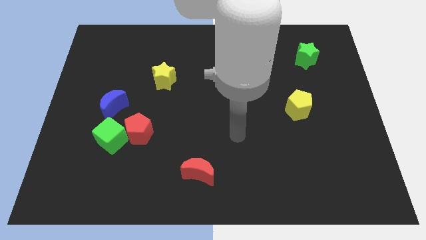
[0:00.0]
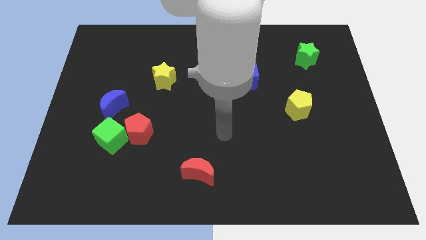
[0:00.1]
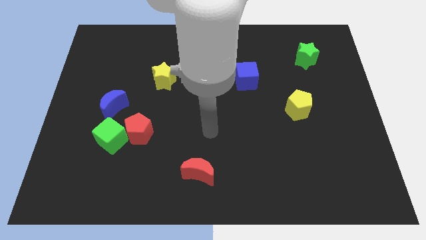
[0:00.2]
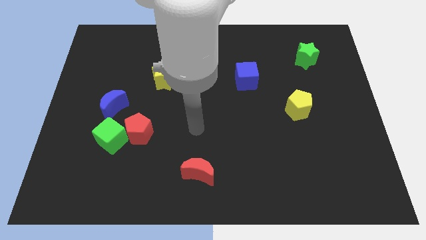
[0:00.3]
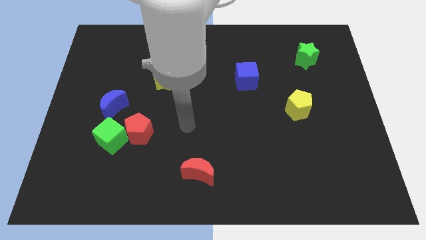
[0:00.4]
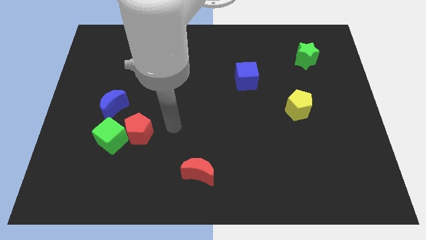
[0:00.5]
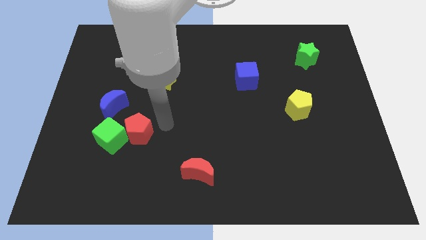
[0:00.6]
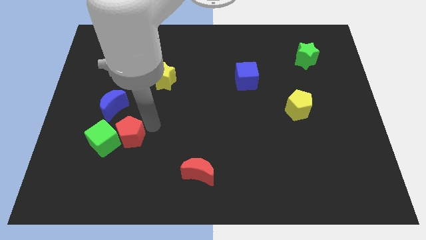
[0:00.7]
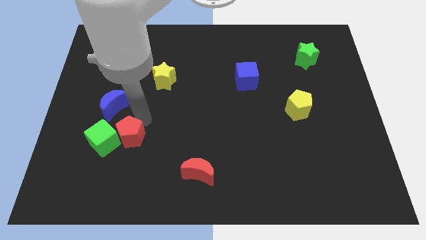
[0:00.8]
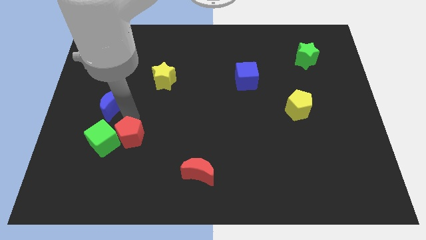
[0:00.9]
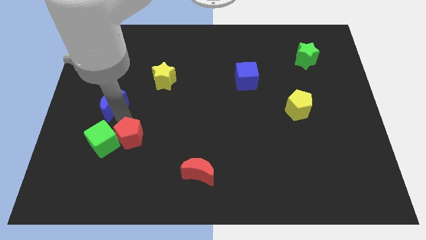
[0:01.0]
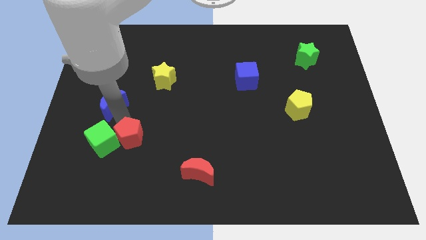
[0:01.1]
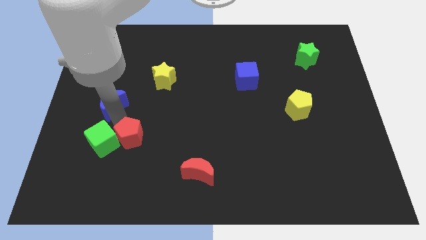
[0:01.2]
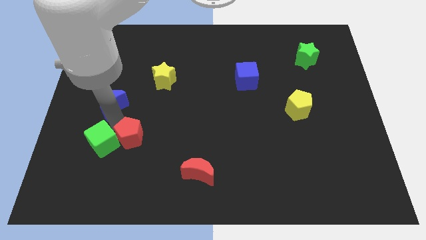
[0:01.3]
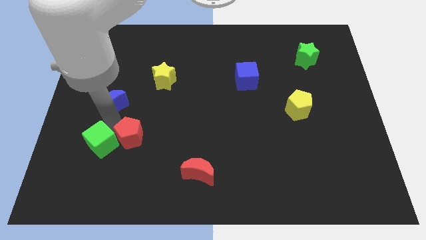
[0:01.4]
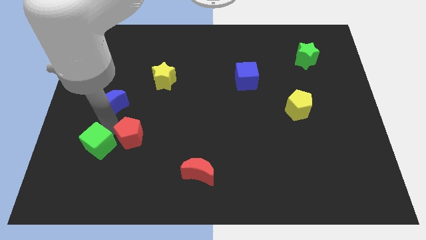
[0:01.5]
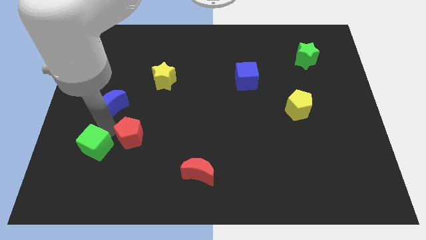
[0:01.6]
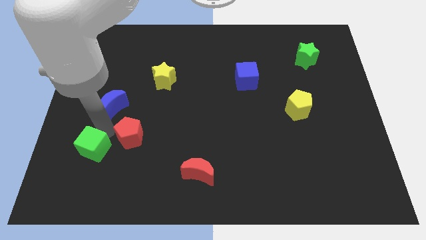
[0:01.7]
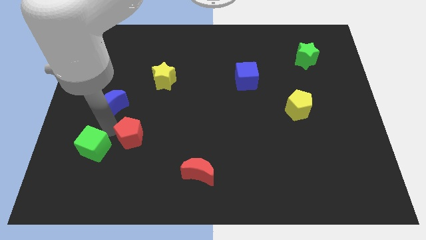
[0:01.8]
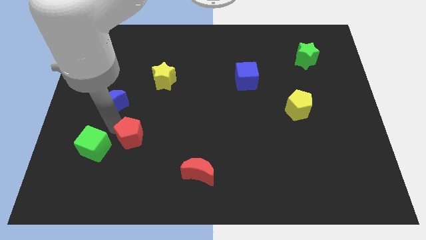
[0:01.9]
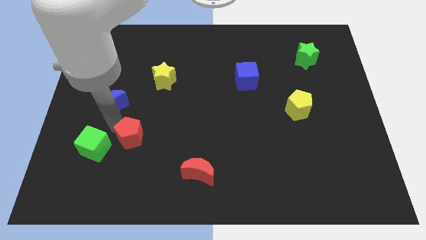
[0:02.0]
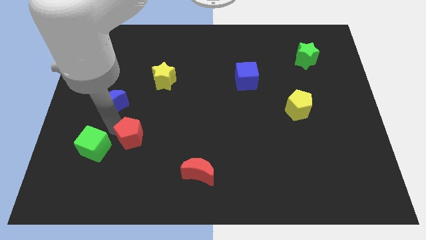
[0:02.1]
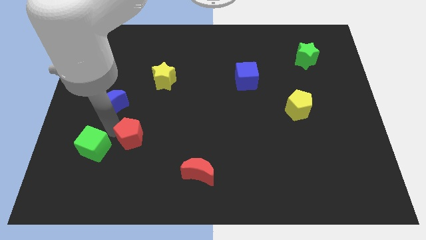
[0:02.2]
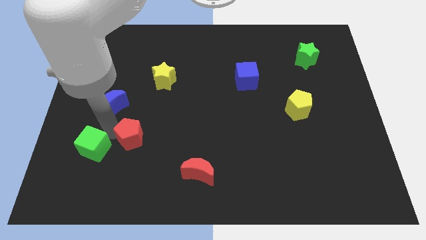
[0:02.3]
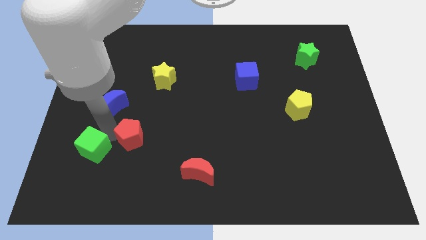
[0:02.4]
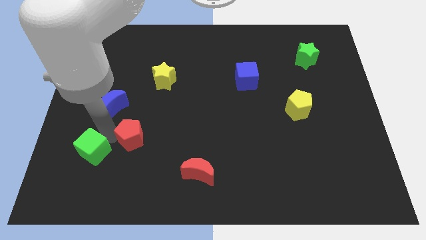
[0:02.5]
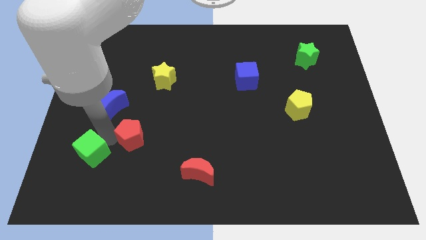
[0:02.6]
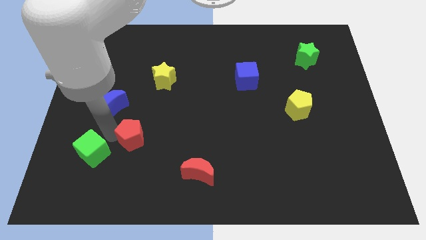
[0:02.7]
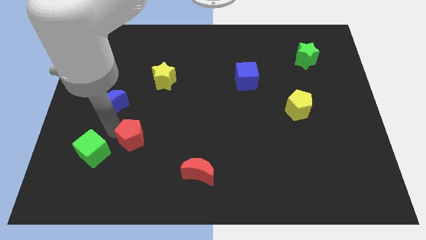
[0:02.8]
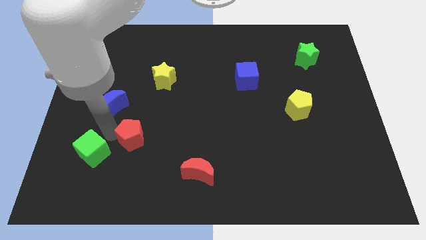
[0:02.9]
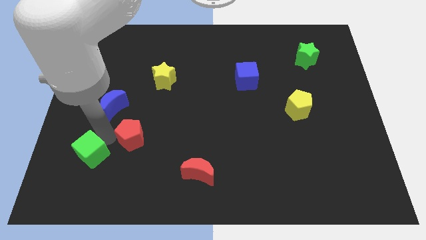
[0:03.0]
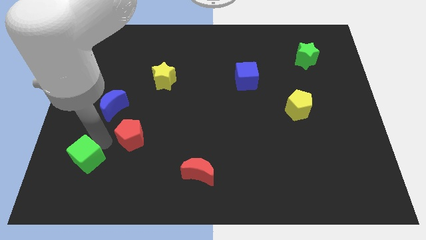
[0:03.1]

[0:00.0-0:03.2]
move the green cube away from the red pentagon and blue moon

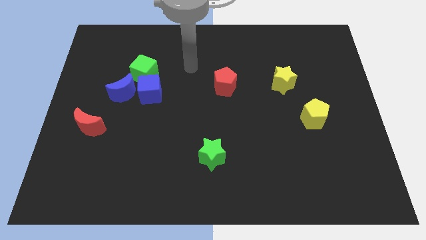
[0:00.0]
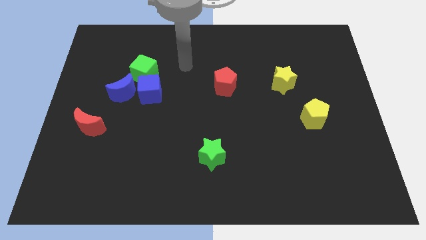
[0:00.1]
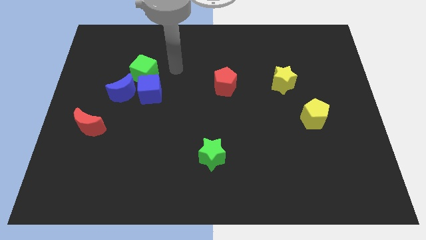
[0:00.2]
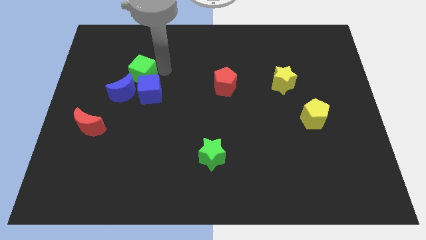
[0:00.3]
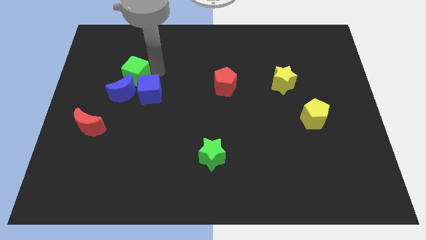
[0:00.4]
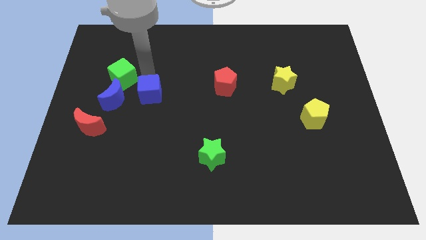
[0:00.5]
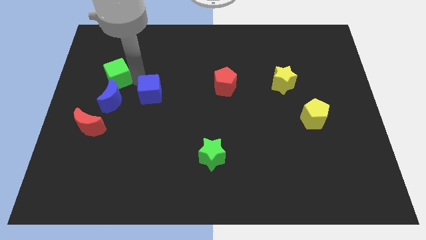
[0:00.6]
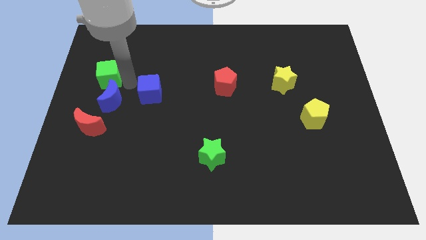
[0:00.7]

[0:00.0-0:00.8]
pull the blue cube apart from the blue moon and green cube

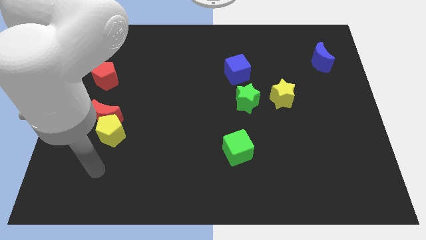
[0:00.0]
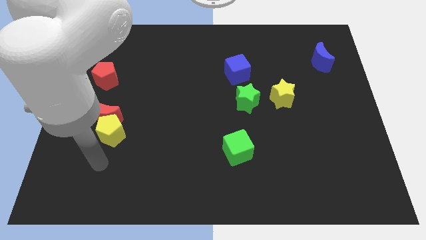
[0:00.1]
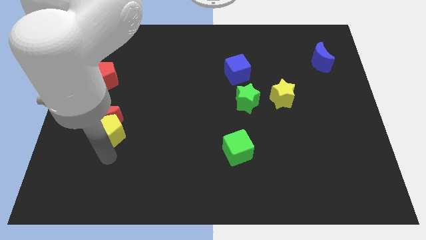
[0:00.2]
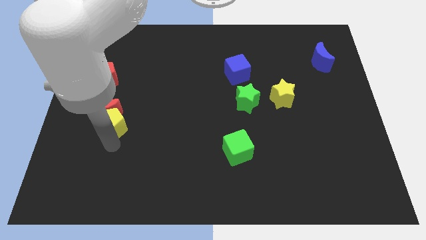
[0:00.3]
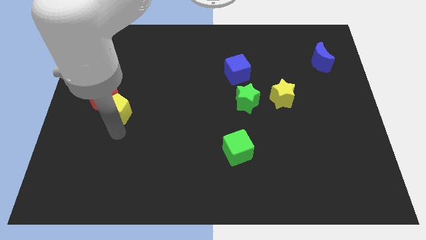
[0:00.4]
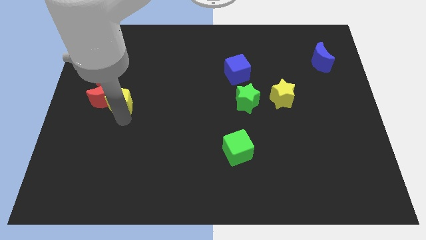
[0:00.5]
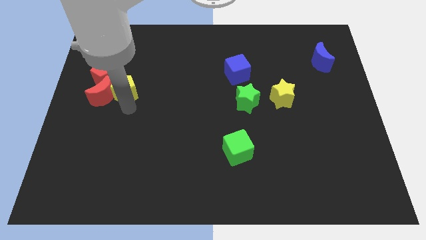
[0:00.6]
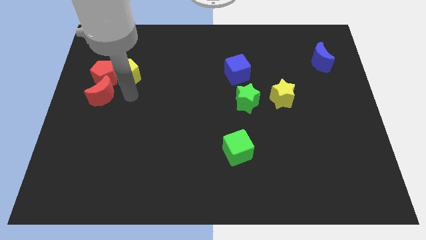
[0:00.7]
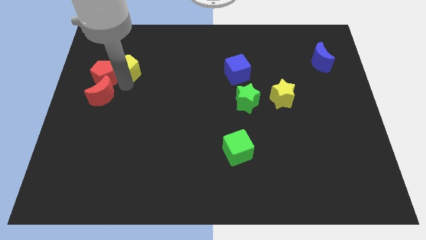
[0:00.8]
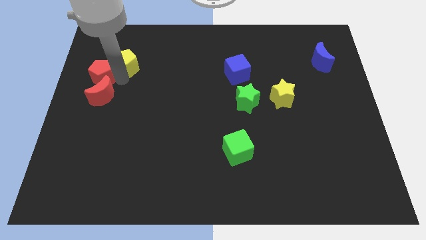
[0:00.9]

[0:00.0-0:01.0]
move the red moon away from the yellow pentagon

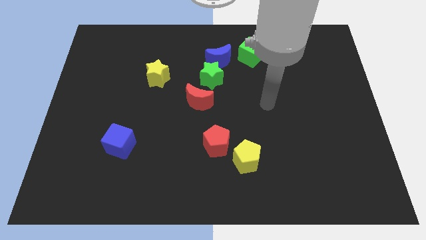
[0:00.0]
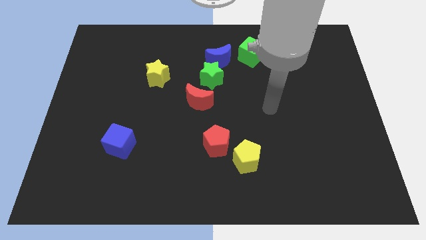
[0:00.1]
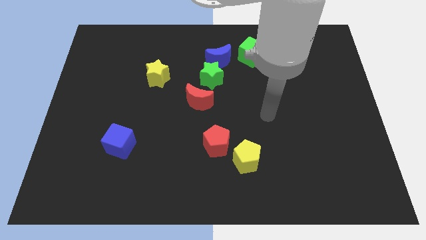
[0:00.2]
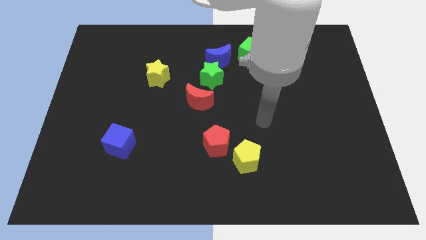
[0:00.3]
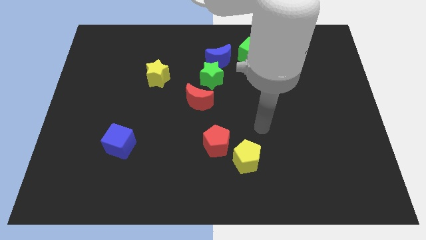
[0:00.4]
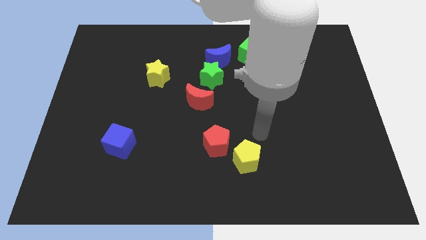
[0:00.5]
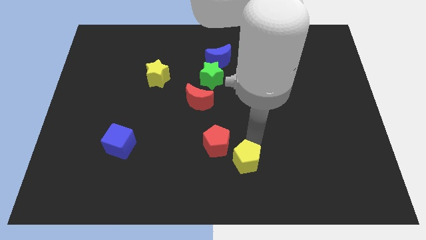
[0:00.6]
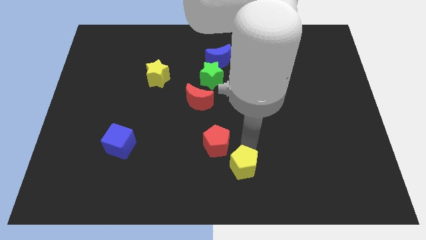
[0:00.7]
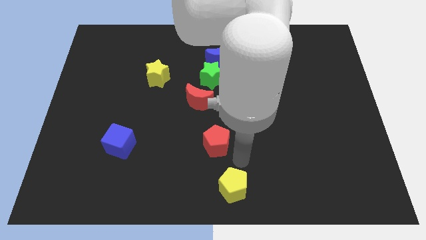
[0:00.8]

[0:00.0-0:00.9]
pull the red pentagon apart from the yellow pentagon

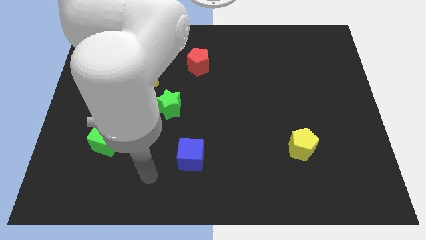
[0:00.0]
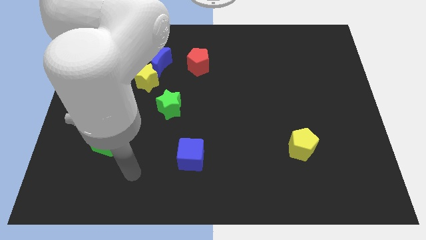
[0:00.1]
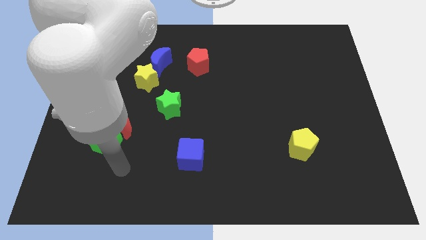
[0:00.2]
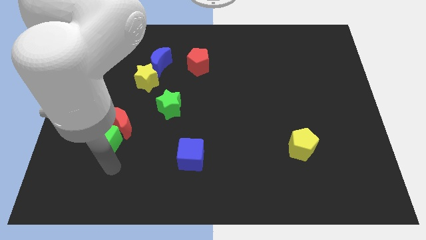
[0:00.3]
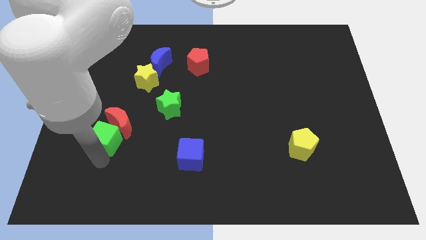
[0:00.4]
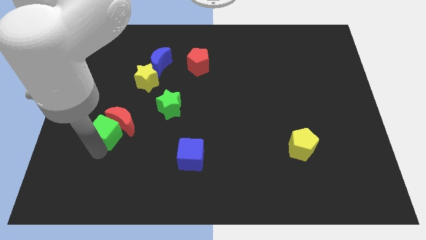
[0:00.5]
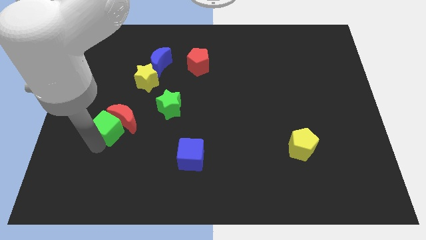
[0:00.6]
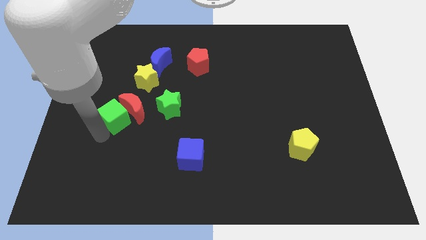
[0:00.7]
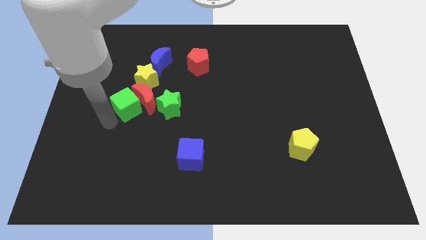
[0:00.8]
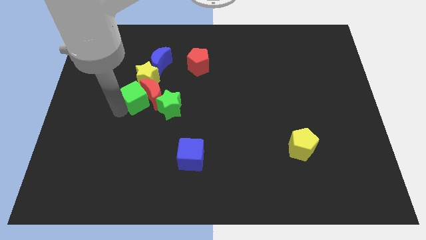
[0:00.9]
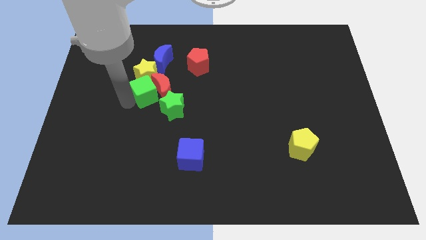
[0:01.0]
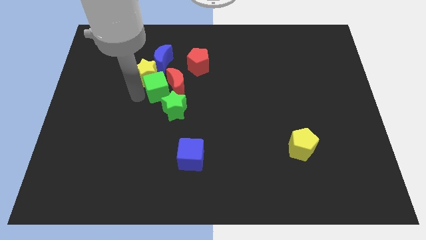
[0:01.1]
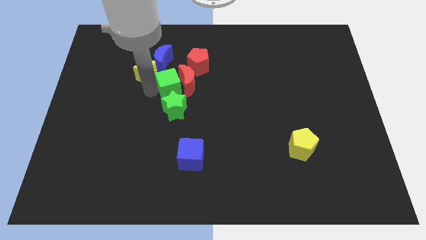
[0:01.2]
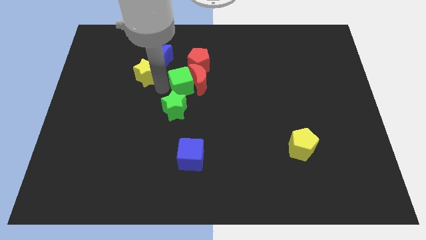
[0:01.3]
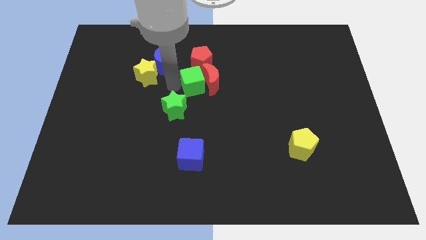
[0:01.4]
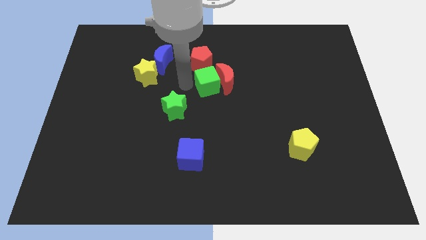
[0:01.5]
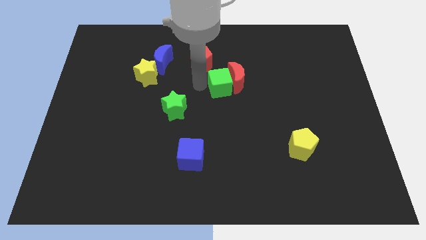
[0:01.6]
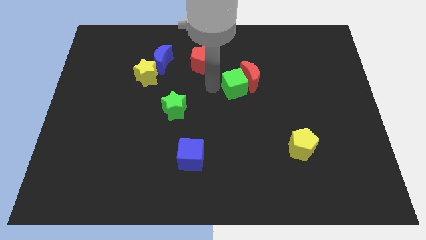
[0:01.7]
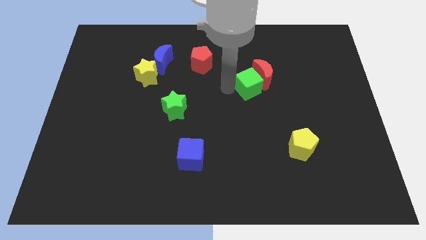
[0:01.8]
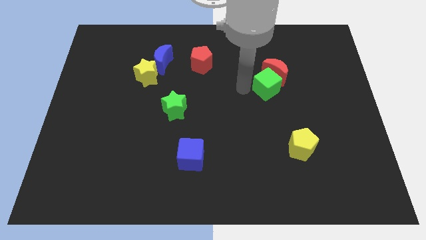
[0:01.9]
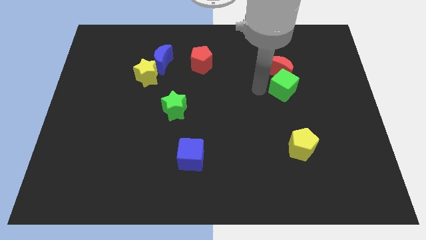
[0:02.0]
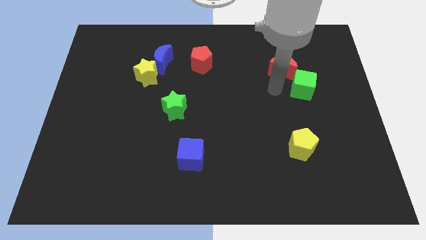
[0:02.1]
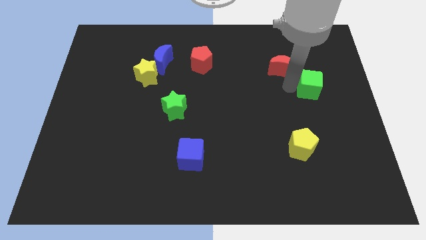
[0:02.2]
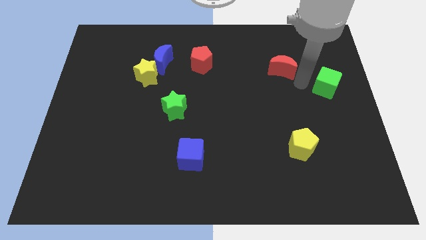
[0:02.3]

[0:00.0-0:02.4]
separate the red moon from the green cube

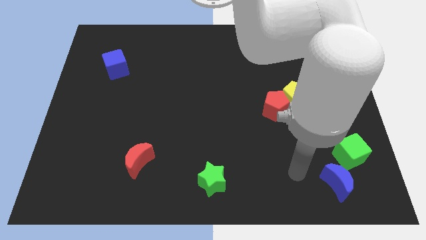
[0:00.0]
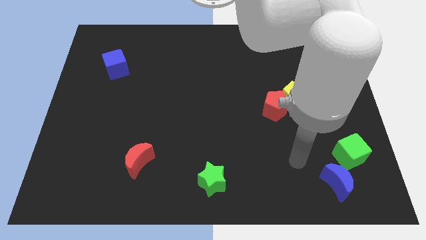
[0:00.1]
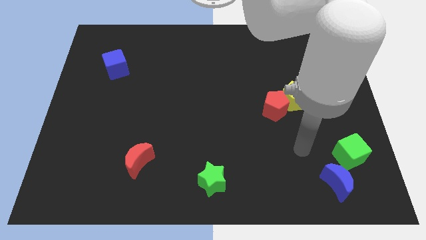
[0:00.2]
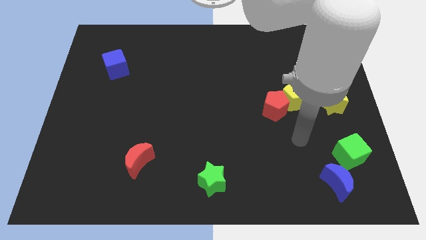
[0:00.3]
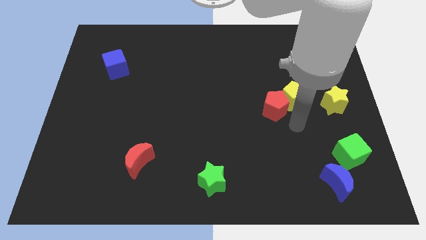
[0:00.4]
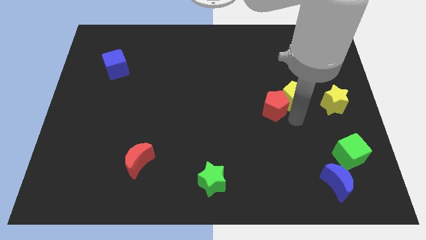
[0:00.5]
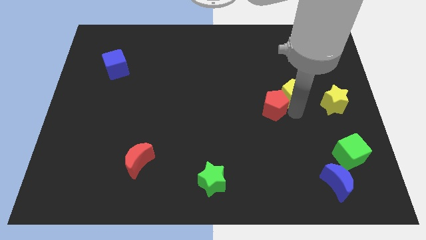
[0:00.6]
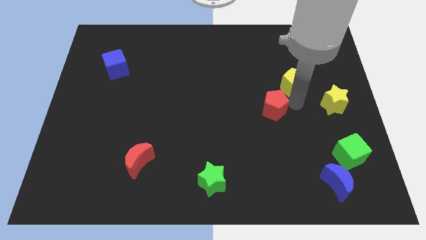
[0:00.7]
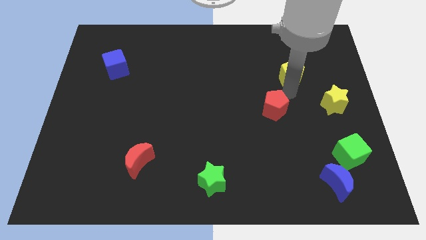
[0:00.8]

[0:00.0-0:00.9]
move the red pentagon away from the yellow pentagon
